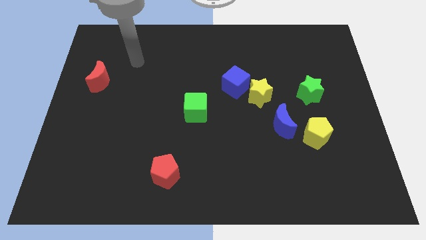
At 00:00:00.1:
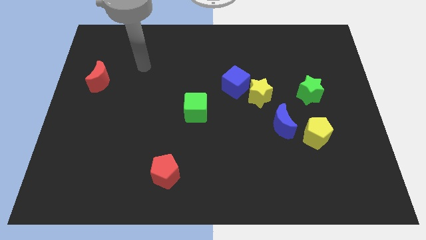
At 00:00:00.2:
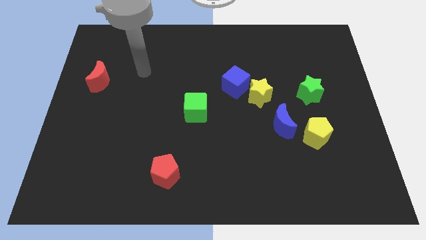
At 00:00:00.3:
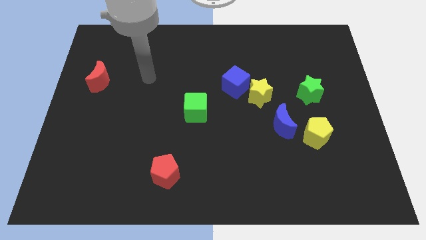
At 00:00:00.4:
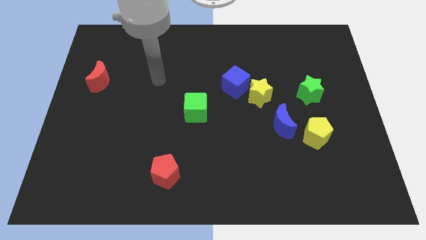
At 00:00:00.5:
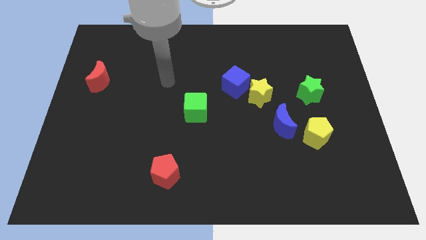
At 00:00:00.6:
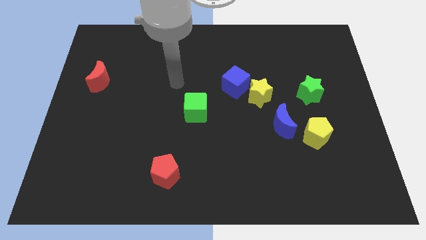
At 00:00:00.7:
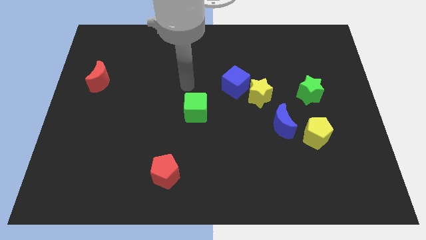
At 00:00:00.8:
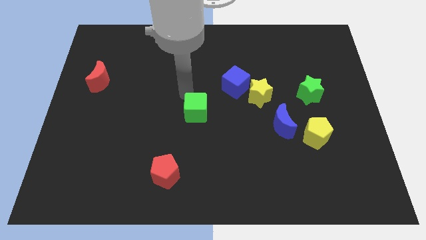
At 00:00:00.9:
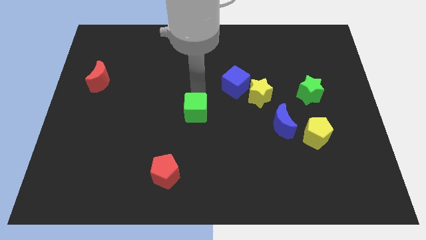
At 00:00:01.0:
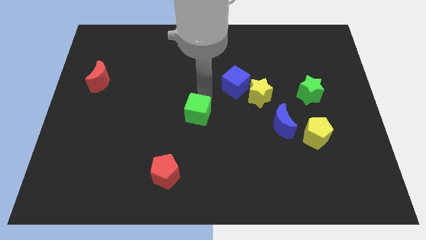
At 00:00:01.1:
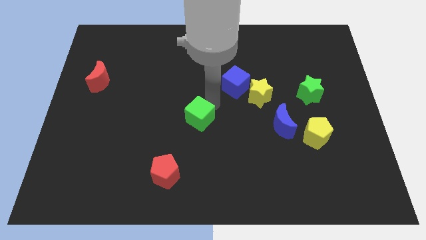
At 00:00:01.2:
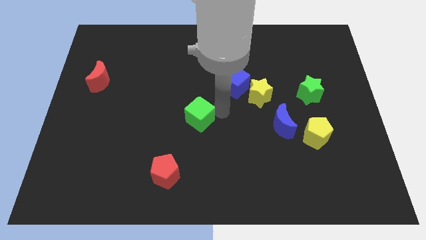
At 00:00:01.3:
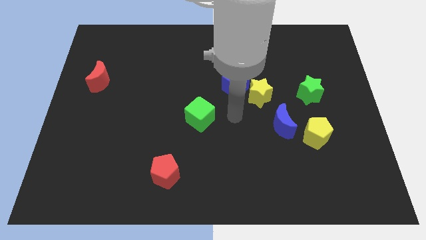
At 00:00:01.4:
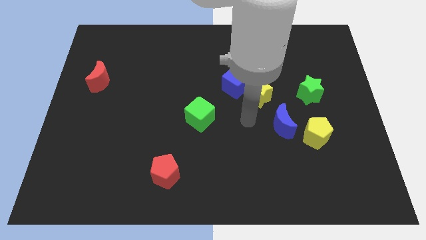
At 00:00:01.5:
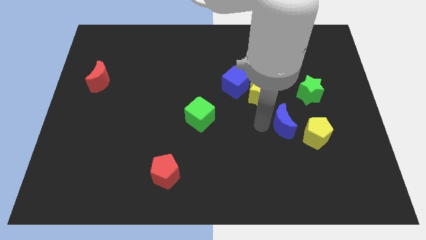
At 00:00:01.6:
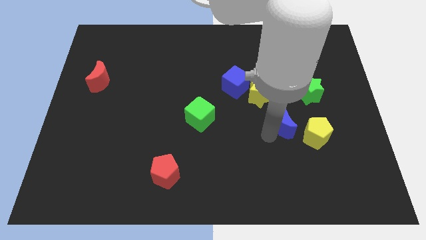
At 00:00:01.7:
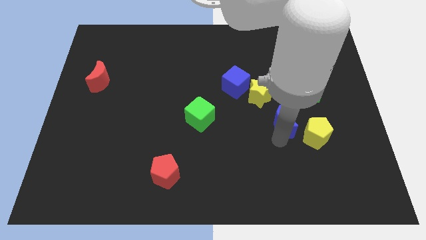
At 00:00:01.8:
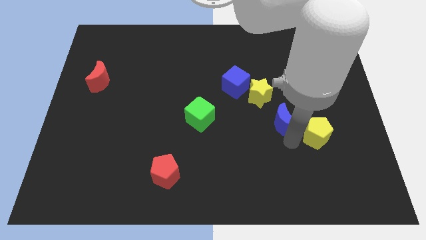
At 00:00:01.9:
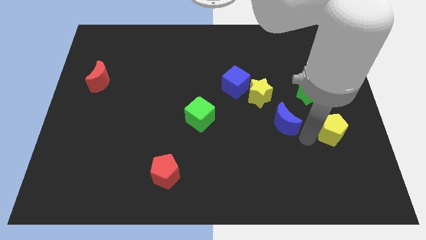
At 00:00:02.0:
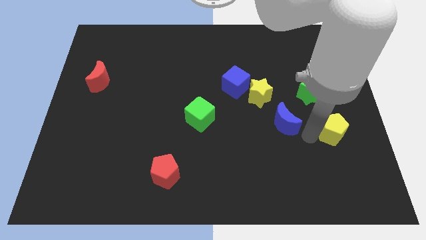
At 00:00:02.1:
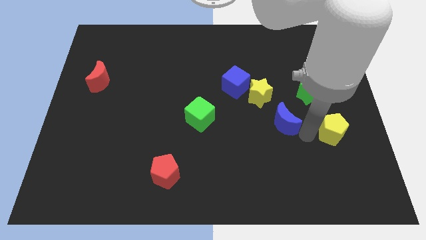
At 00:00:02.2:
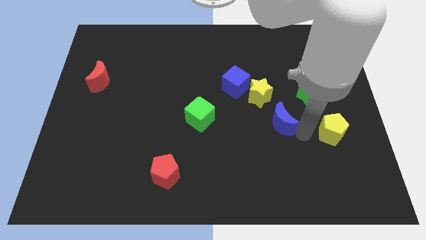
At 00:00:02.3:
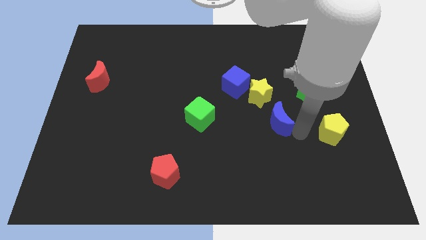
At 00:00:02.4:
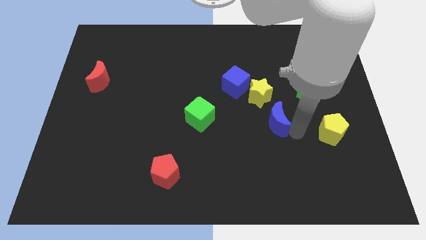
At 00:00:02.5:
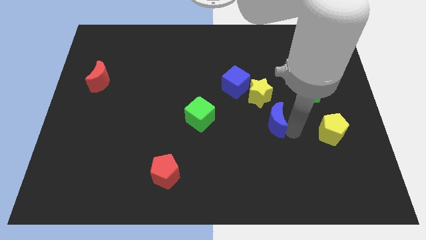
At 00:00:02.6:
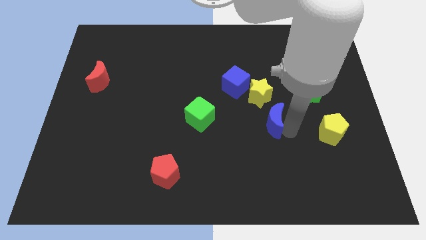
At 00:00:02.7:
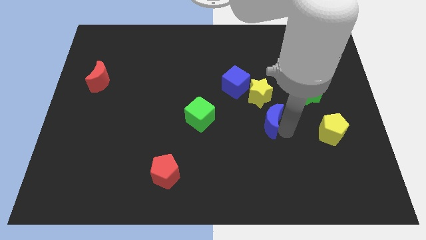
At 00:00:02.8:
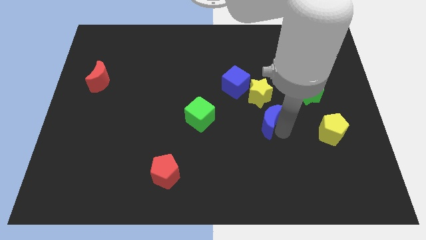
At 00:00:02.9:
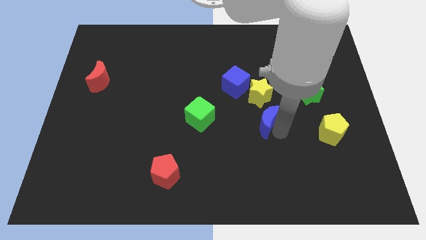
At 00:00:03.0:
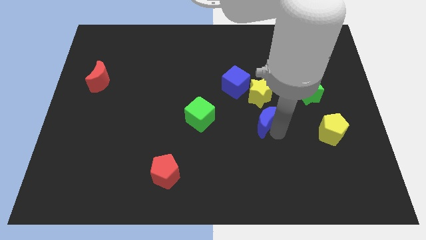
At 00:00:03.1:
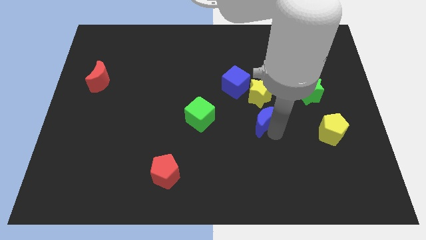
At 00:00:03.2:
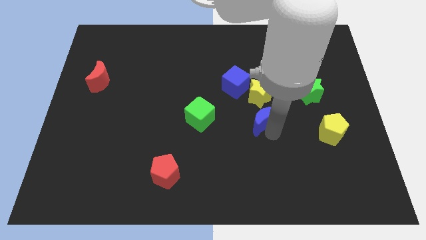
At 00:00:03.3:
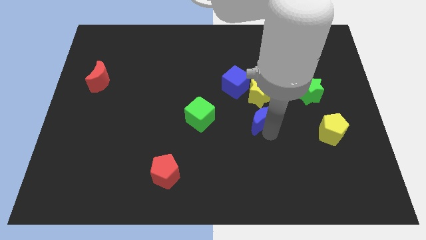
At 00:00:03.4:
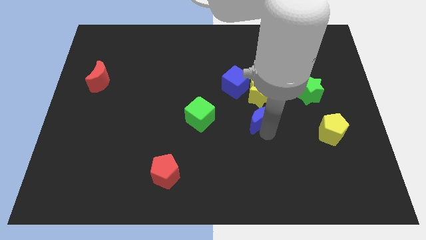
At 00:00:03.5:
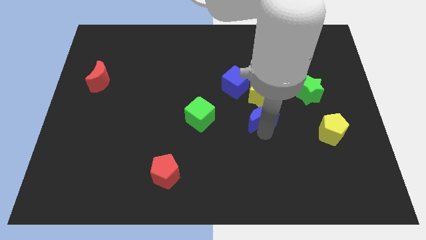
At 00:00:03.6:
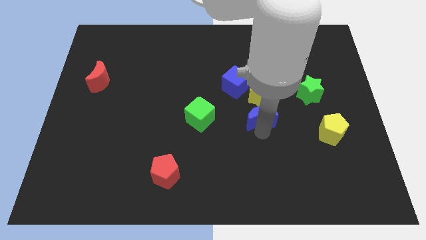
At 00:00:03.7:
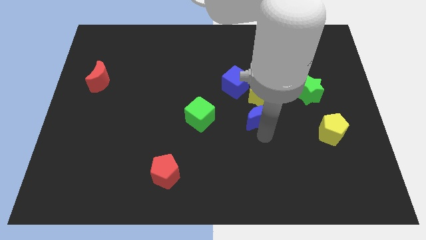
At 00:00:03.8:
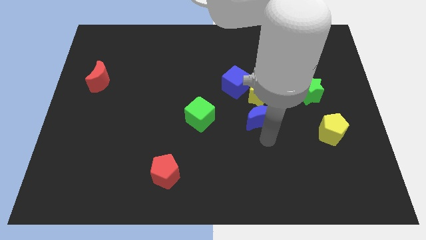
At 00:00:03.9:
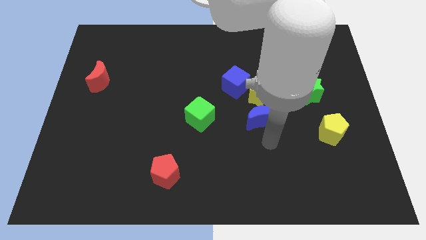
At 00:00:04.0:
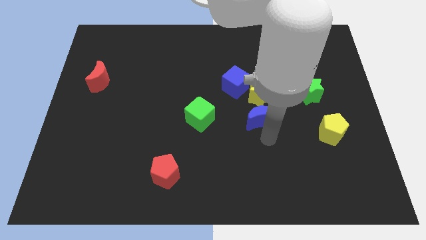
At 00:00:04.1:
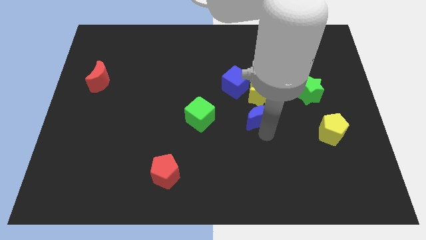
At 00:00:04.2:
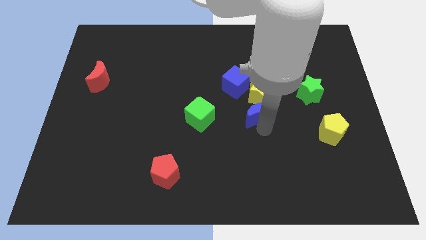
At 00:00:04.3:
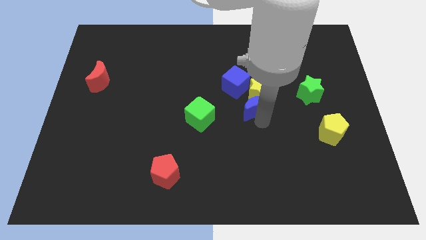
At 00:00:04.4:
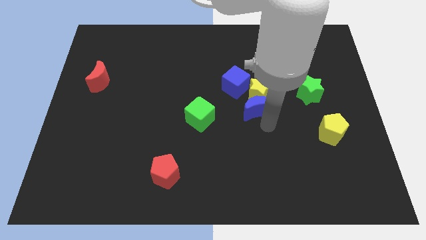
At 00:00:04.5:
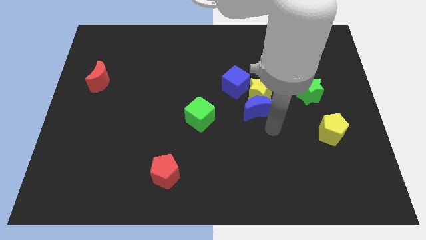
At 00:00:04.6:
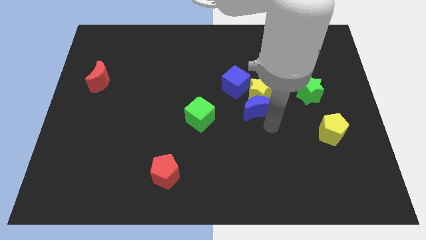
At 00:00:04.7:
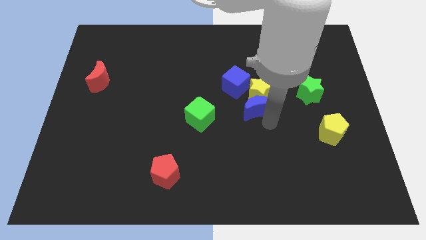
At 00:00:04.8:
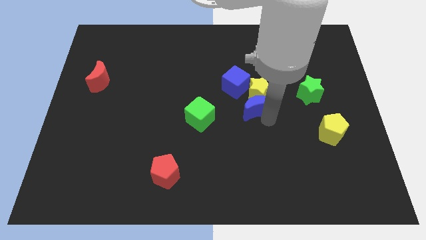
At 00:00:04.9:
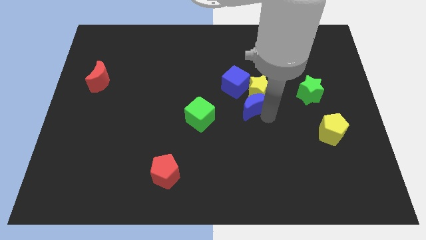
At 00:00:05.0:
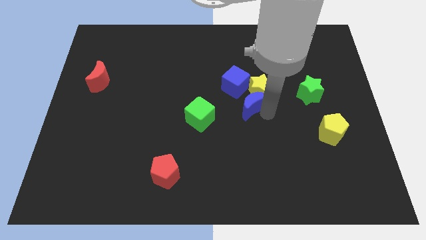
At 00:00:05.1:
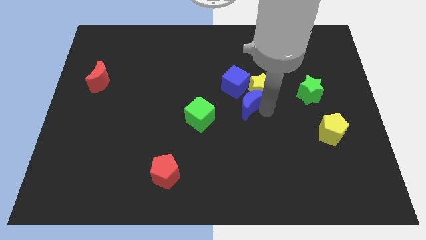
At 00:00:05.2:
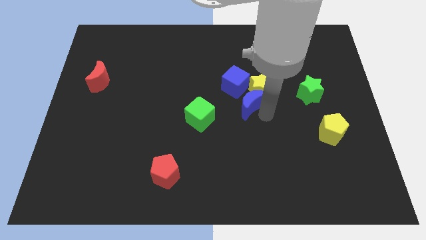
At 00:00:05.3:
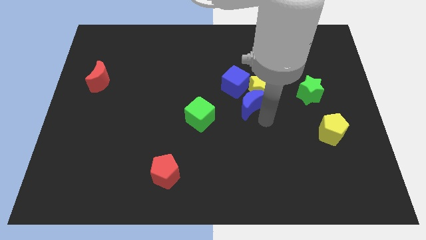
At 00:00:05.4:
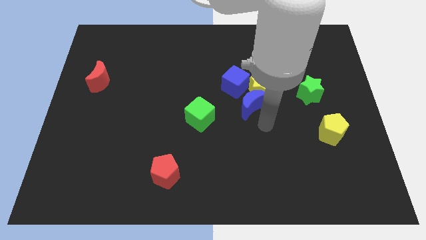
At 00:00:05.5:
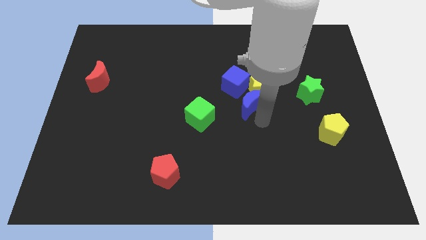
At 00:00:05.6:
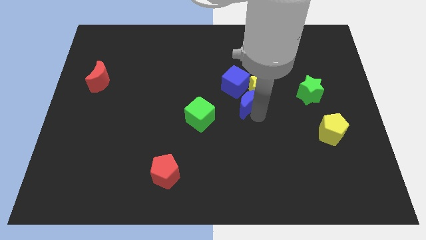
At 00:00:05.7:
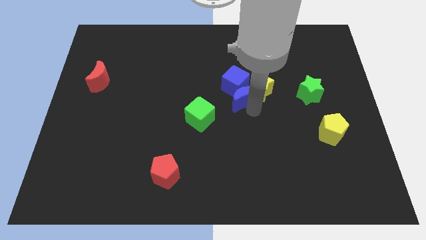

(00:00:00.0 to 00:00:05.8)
move the blue moon to the blue cube

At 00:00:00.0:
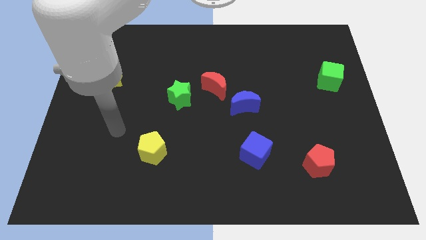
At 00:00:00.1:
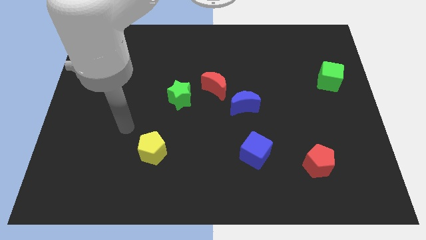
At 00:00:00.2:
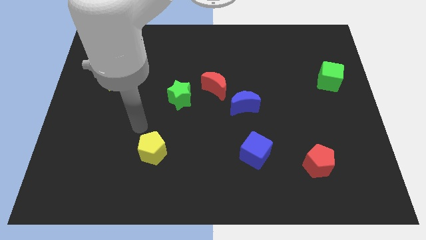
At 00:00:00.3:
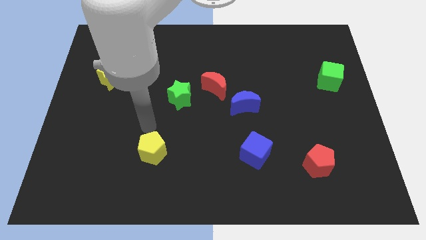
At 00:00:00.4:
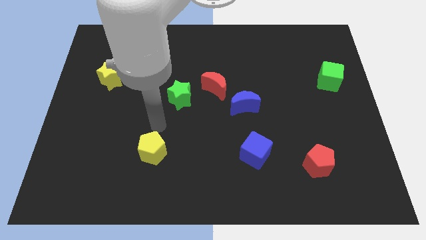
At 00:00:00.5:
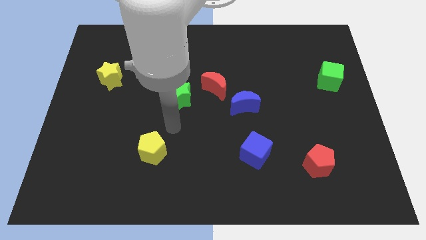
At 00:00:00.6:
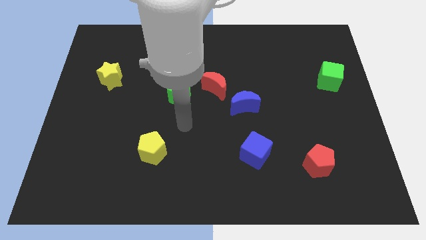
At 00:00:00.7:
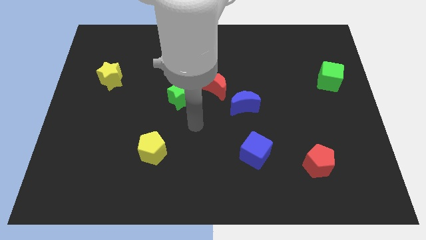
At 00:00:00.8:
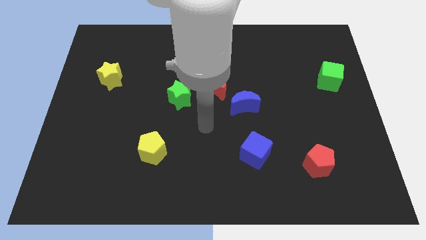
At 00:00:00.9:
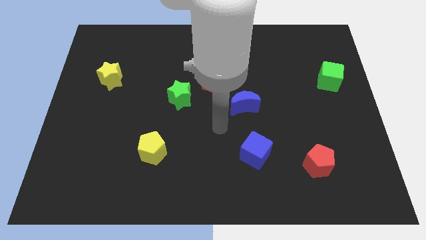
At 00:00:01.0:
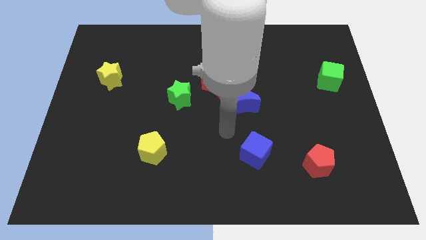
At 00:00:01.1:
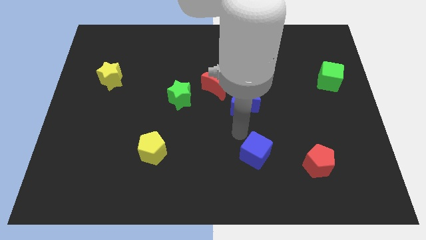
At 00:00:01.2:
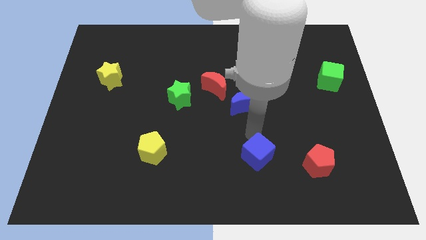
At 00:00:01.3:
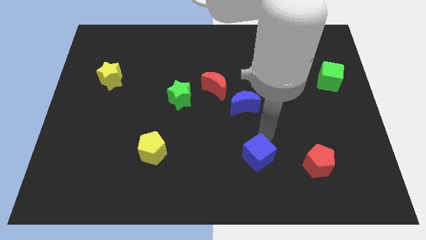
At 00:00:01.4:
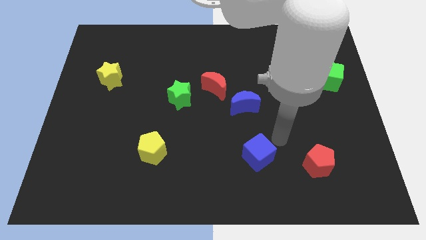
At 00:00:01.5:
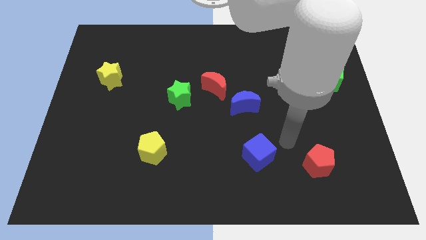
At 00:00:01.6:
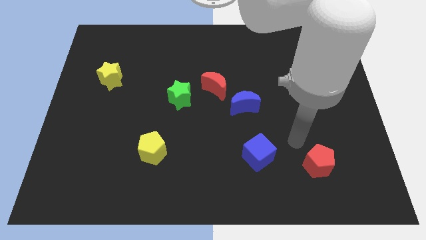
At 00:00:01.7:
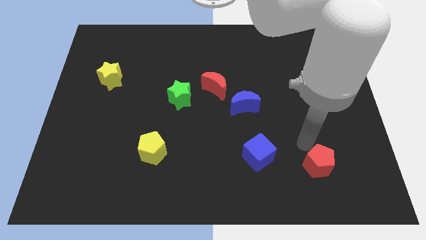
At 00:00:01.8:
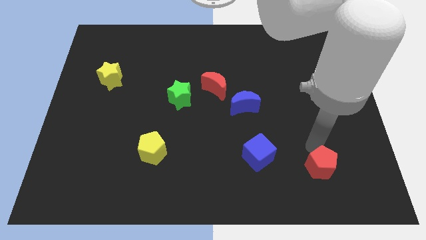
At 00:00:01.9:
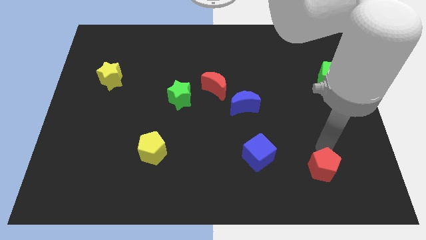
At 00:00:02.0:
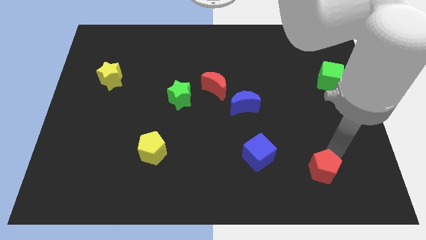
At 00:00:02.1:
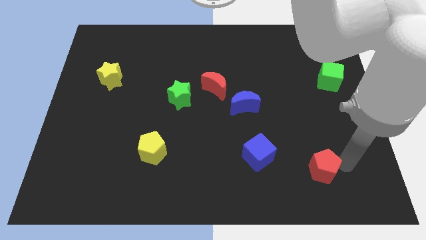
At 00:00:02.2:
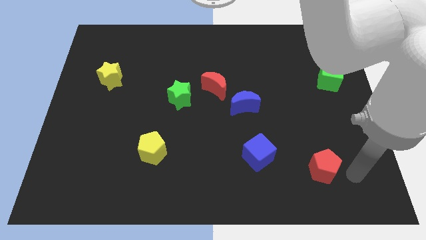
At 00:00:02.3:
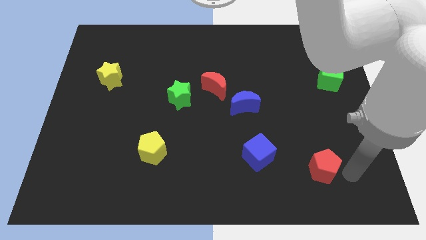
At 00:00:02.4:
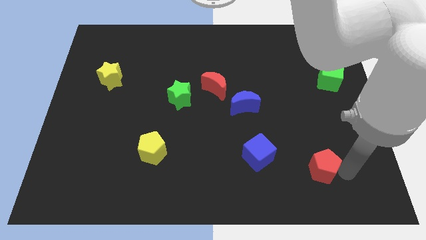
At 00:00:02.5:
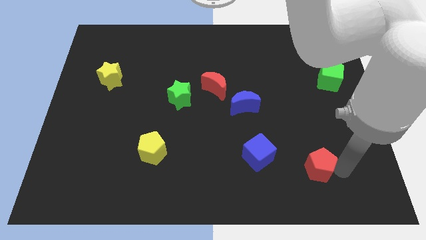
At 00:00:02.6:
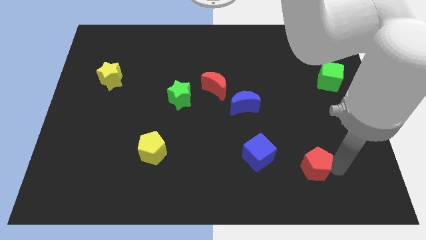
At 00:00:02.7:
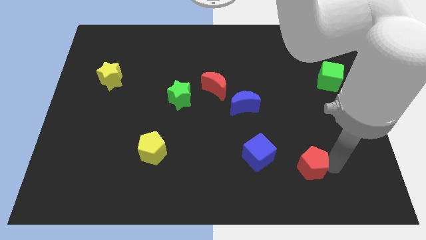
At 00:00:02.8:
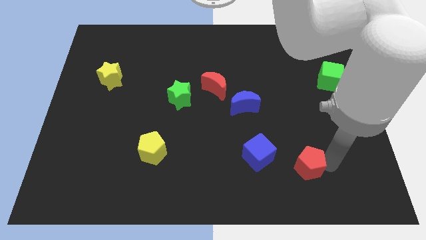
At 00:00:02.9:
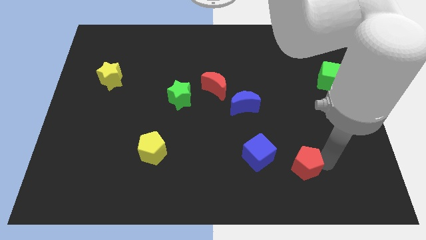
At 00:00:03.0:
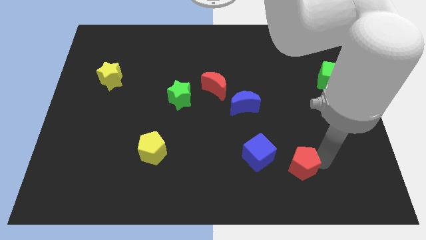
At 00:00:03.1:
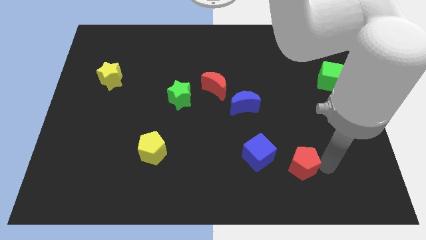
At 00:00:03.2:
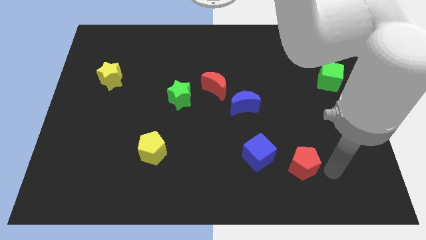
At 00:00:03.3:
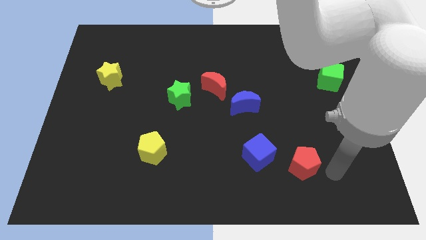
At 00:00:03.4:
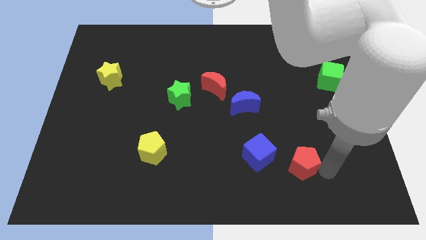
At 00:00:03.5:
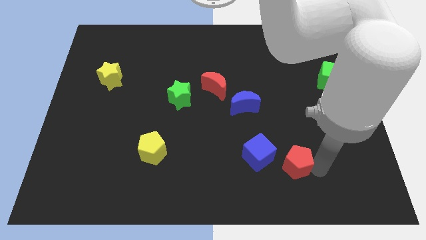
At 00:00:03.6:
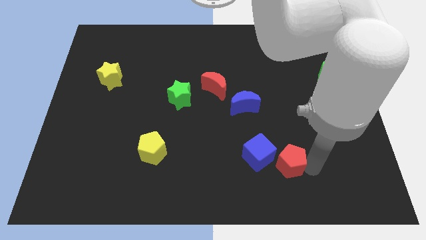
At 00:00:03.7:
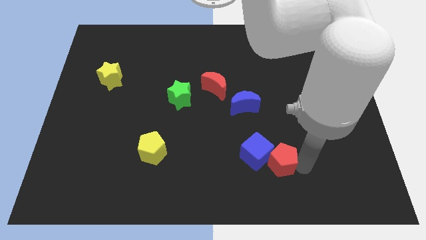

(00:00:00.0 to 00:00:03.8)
slide the red pentagon towards the blue cube
